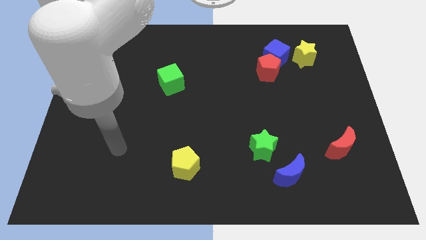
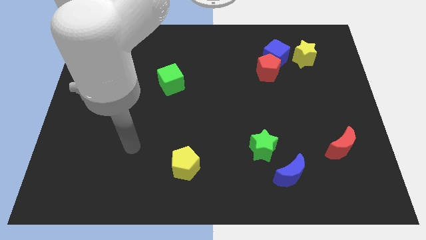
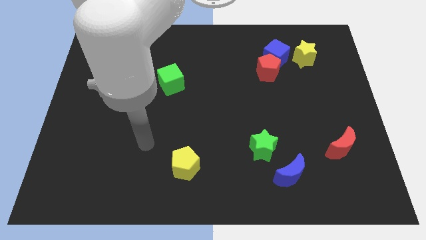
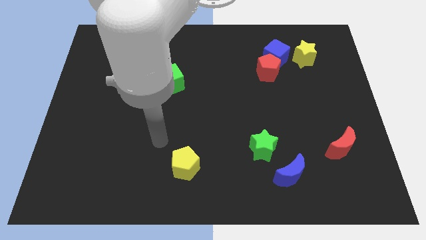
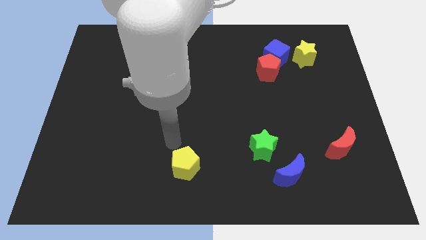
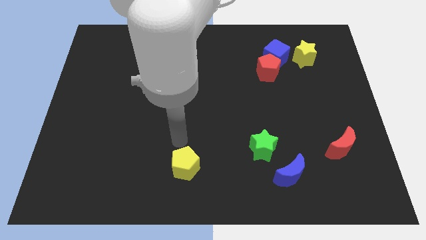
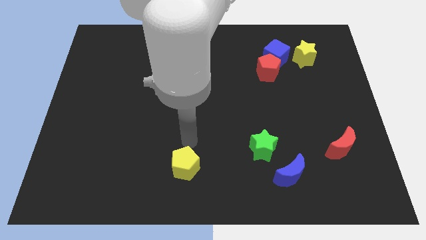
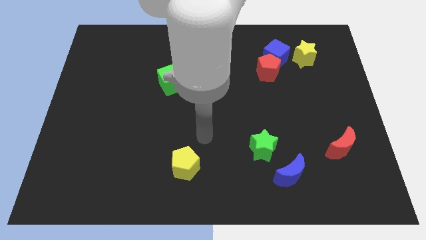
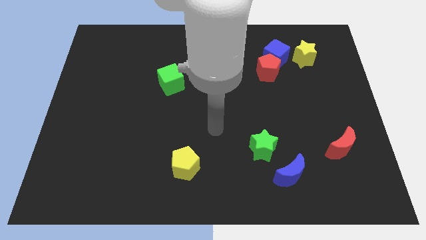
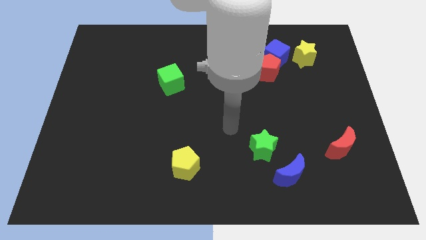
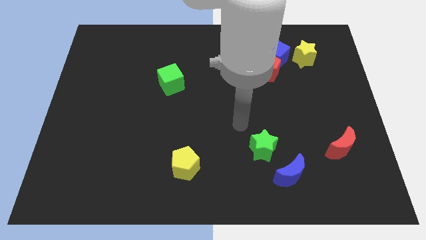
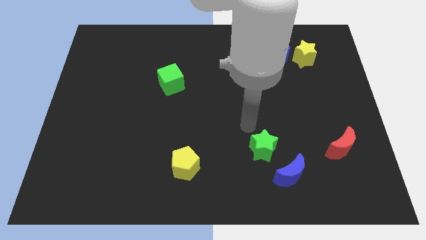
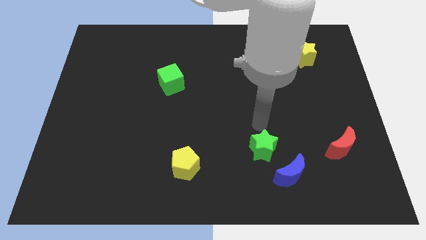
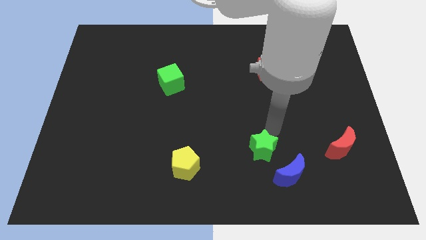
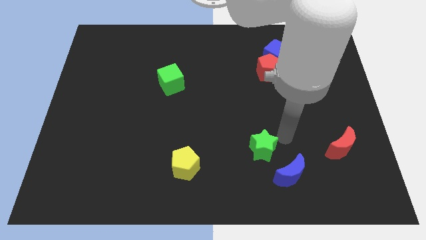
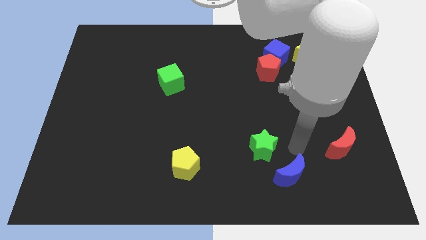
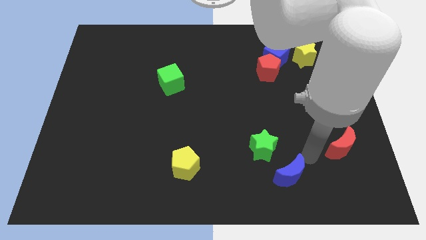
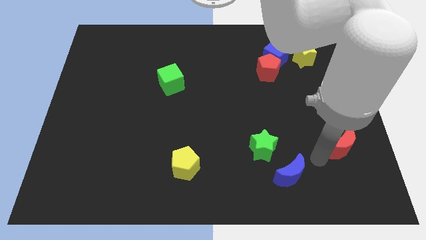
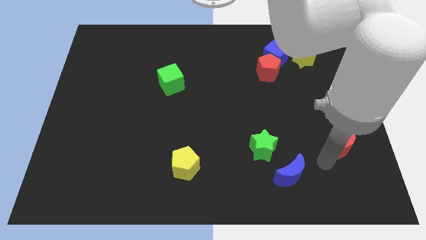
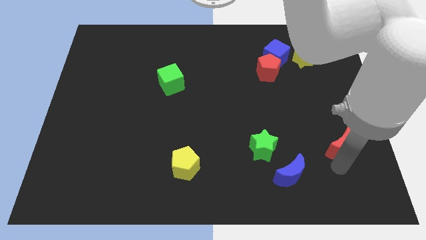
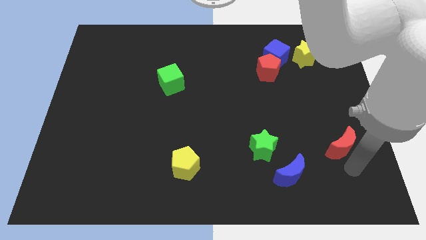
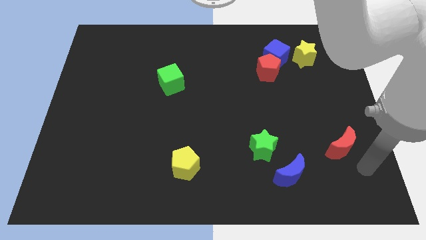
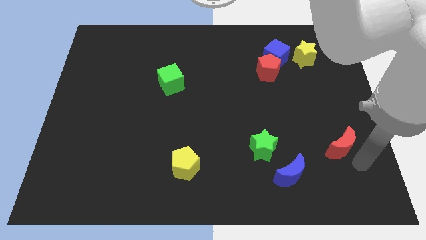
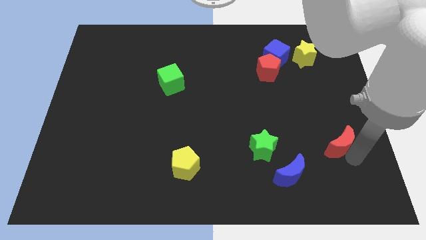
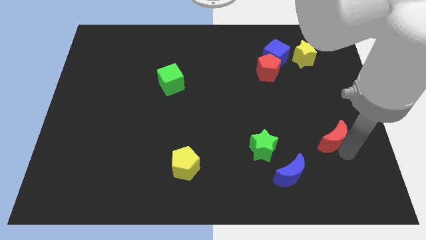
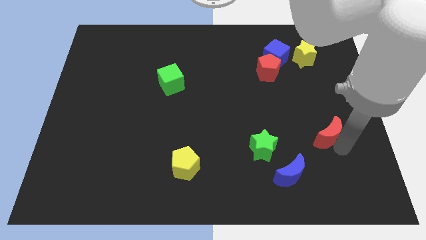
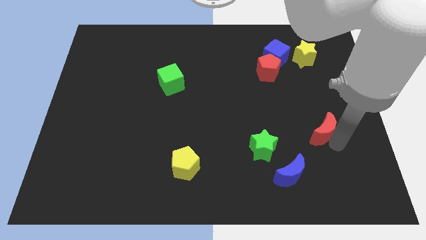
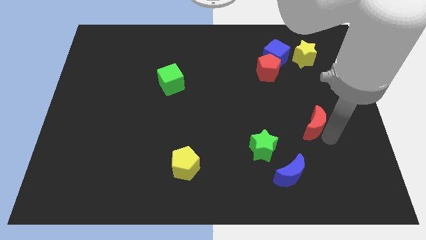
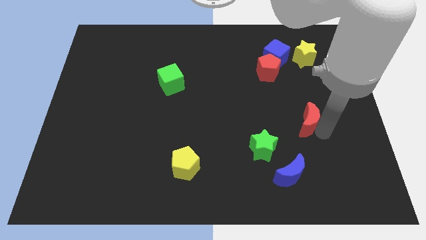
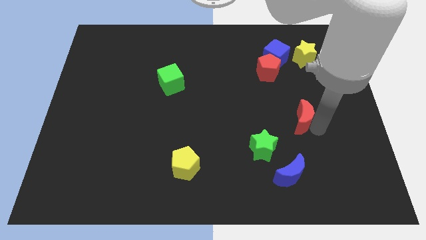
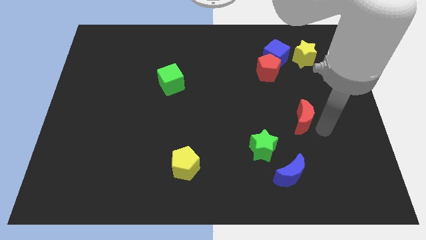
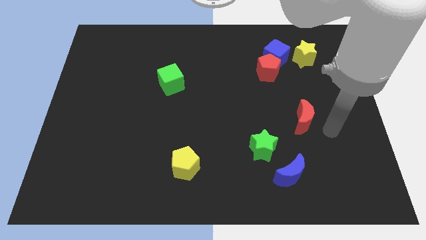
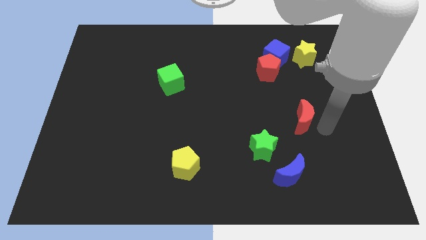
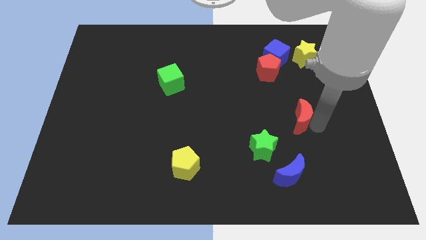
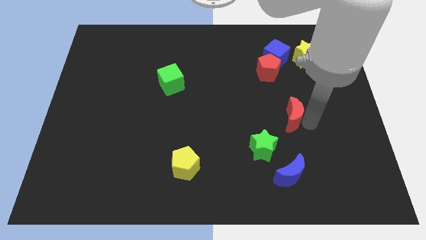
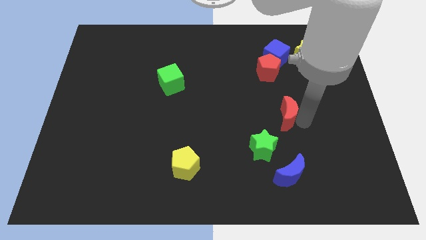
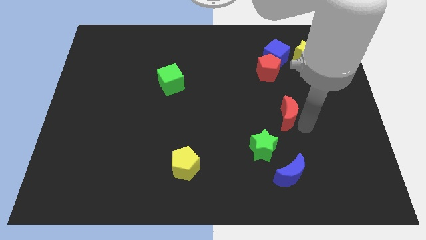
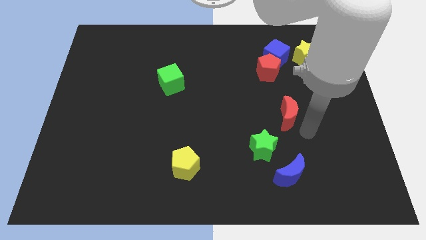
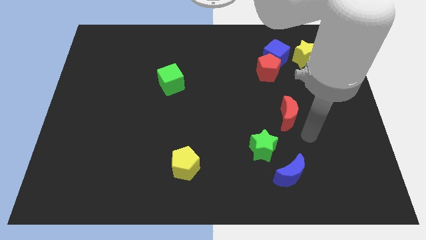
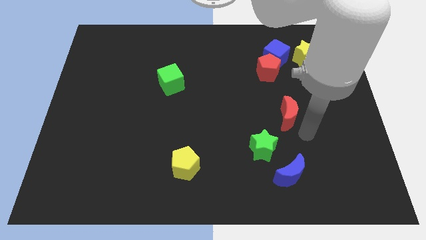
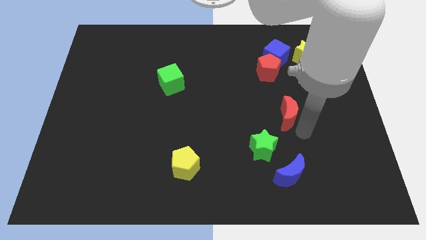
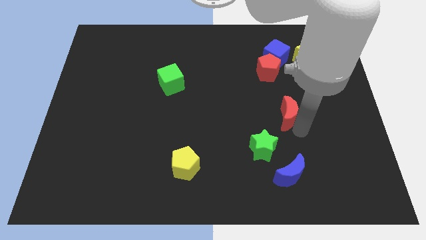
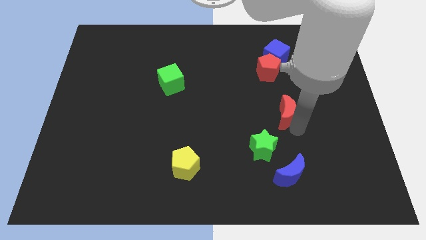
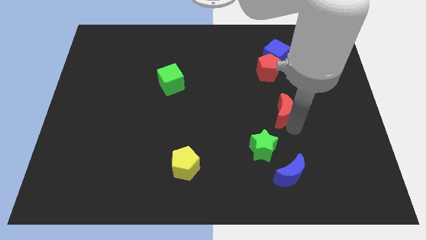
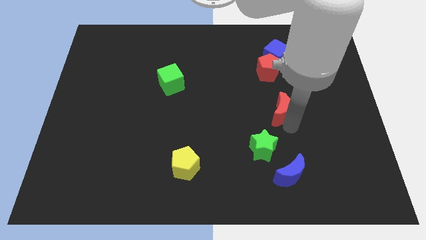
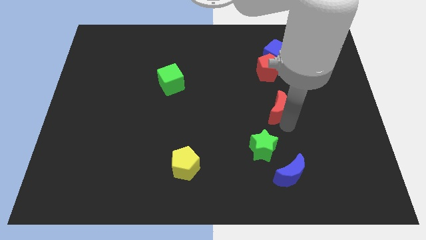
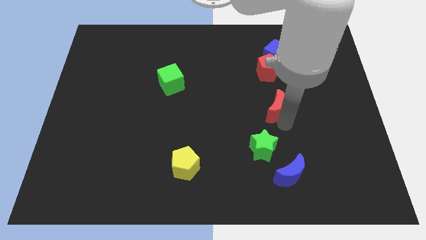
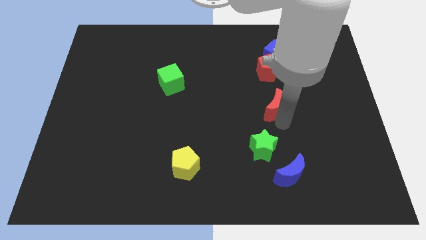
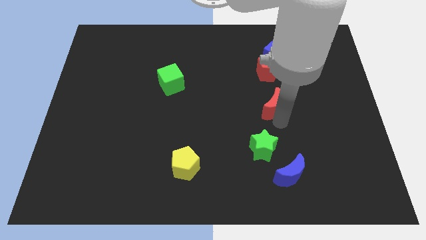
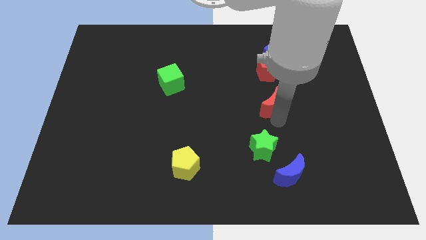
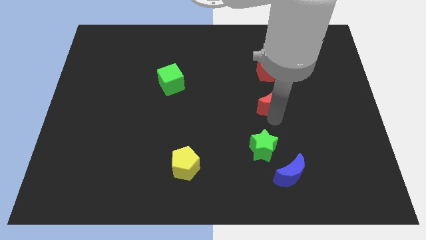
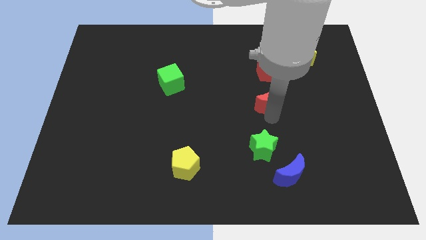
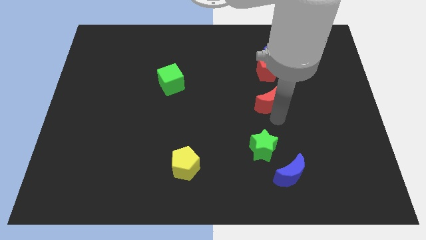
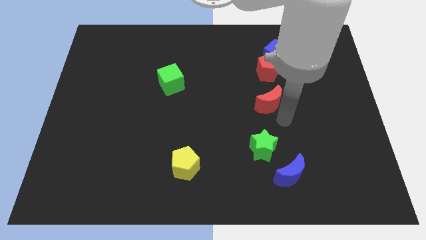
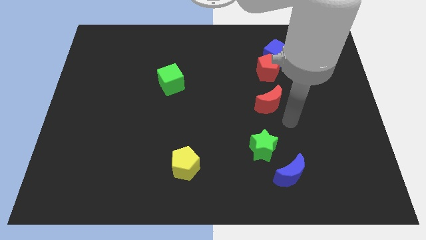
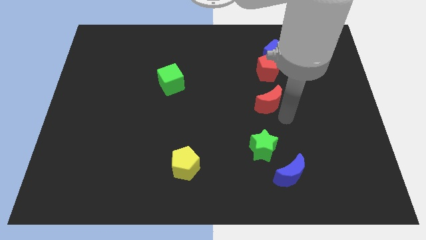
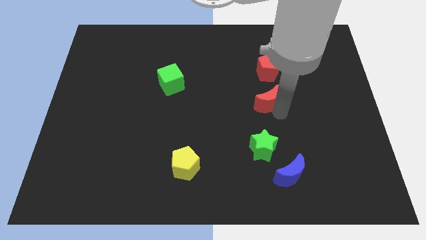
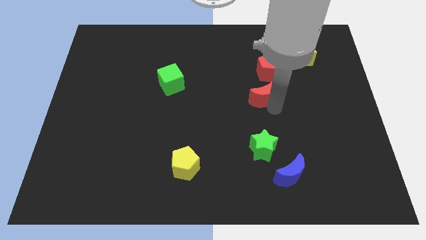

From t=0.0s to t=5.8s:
put the red moon to the bottom left side of the red pentagon

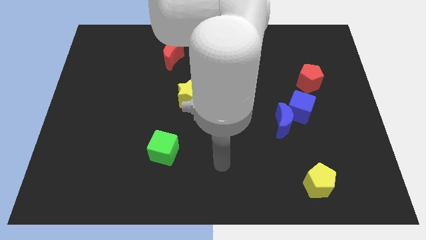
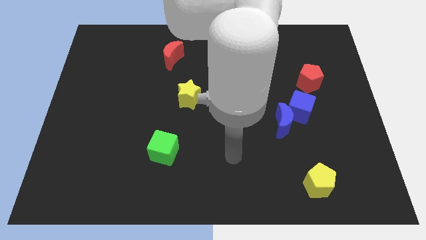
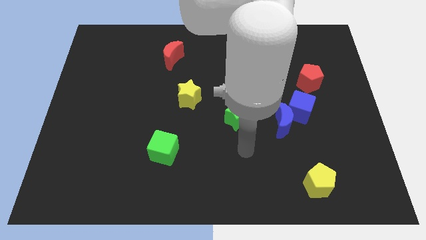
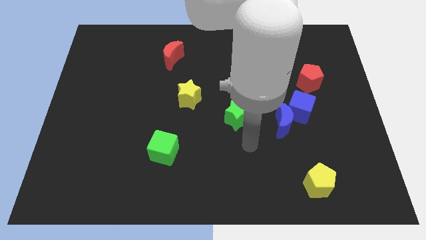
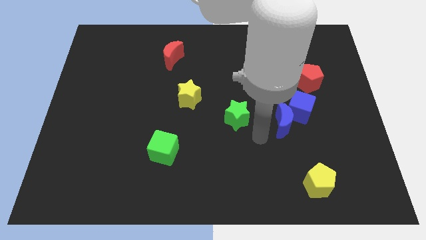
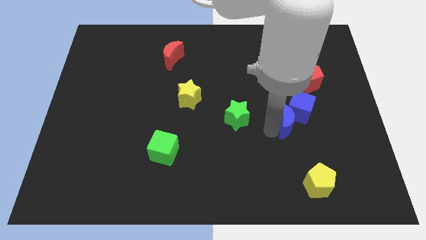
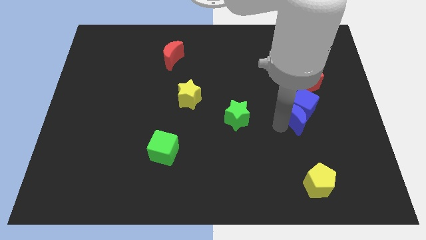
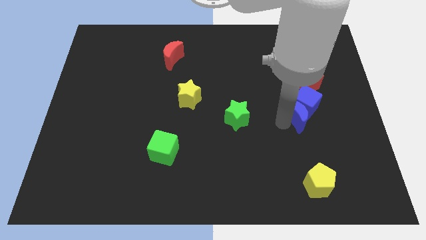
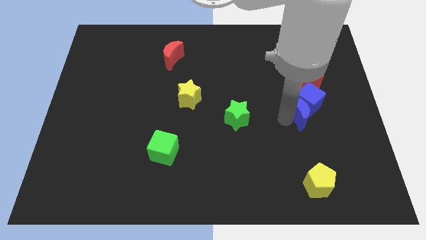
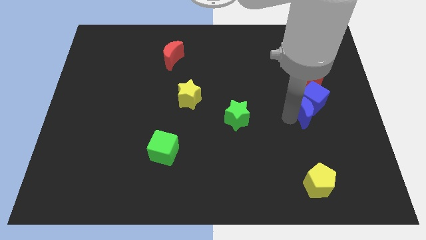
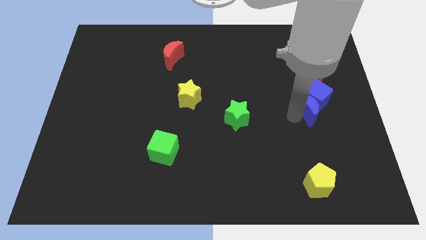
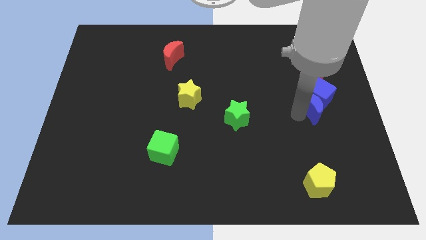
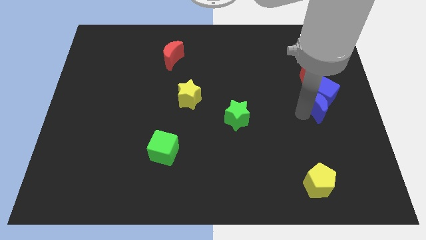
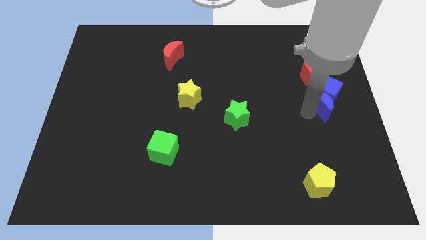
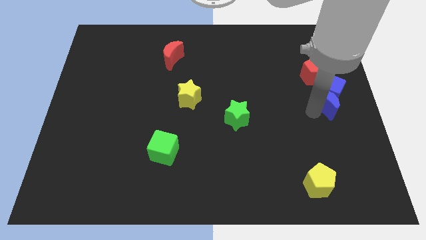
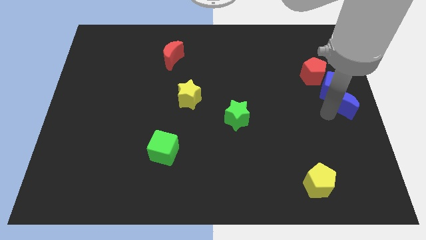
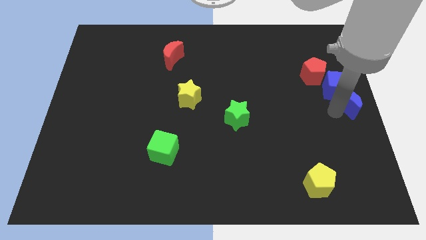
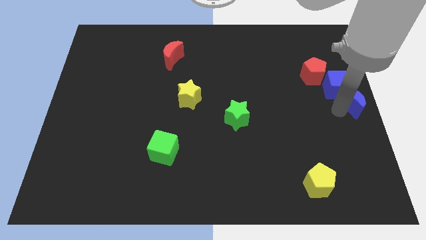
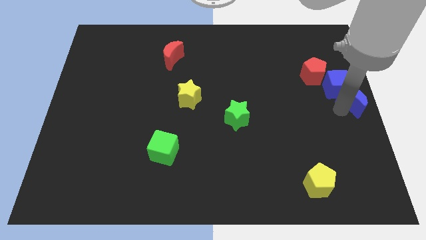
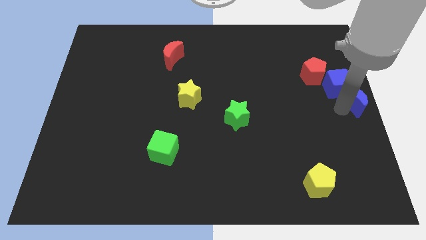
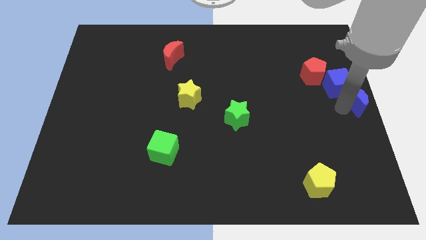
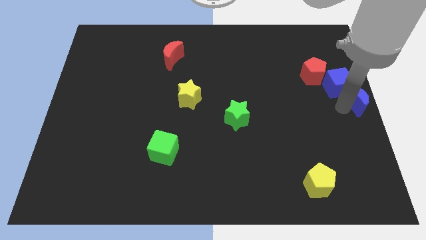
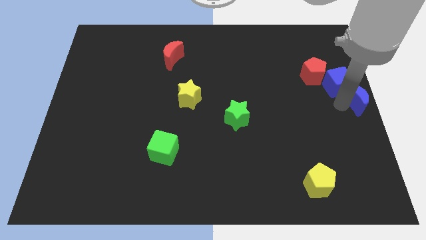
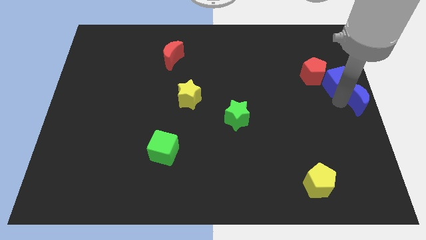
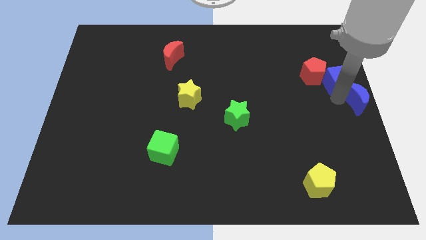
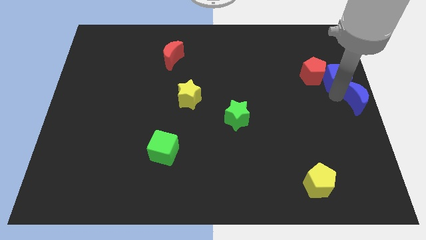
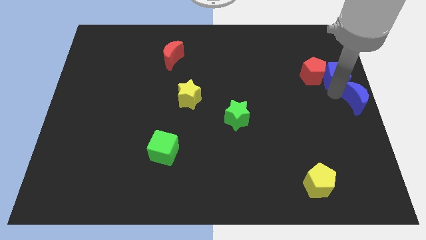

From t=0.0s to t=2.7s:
put the blue cube to the top right of the red pentagon
